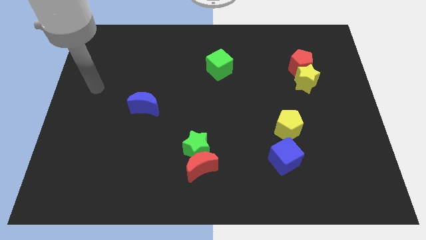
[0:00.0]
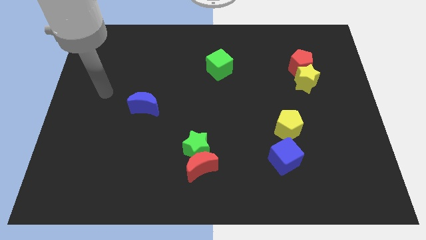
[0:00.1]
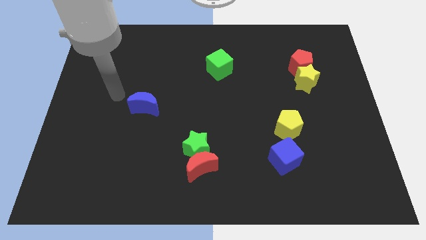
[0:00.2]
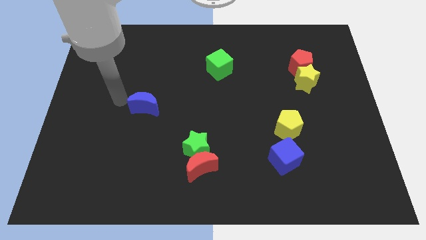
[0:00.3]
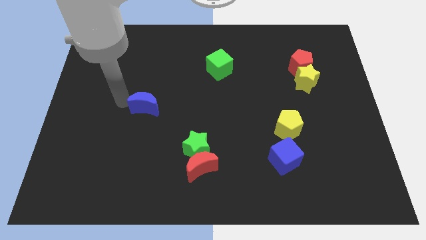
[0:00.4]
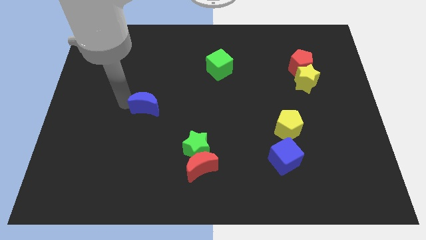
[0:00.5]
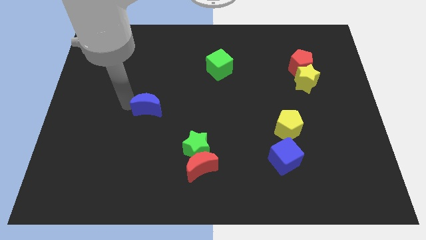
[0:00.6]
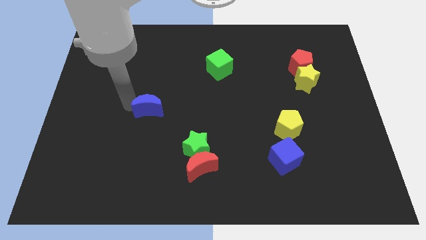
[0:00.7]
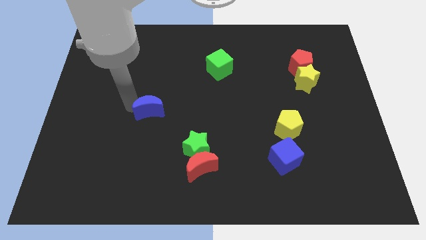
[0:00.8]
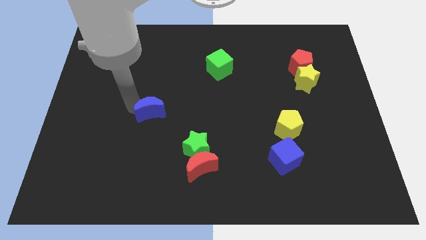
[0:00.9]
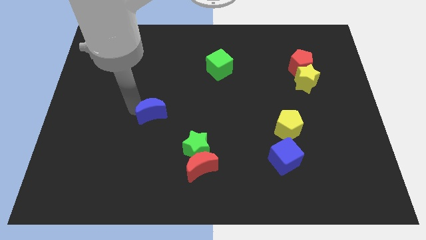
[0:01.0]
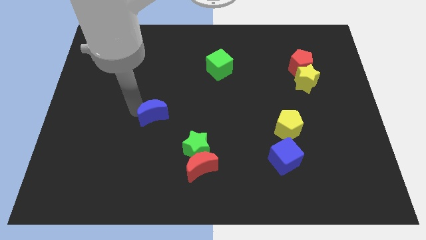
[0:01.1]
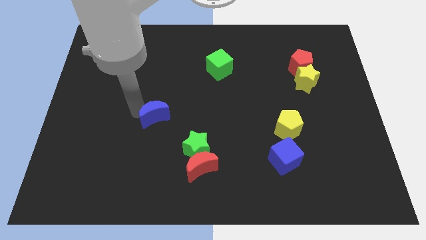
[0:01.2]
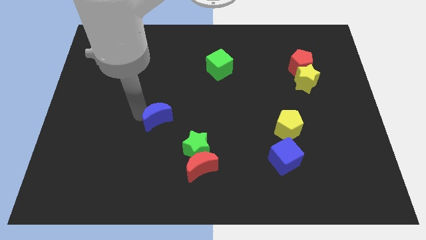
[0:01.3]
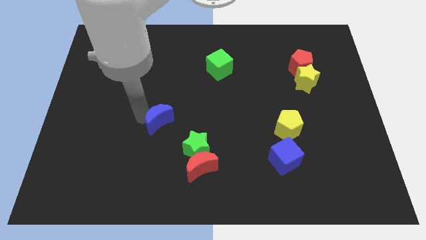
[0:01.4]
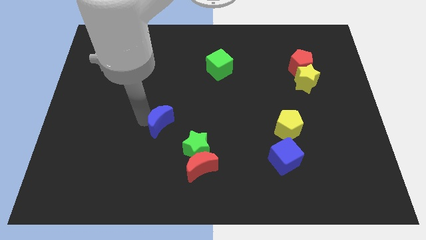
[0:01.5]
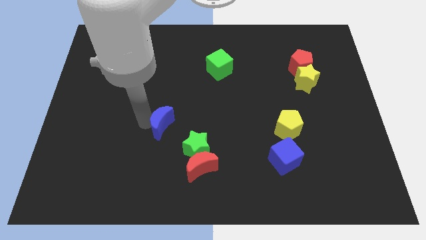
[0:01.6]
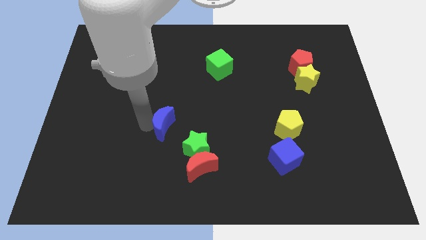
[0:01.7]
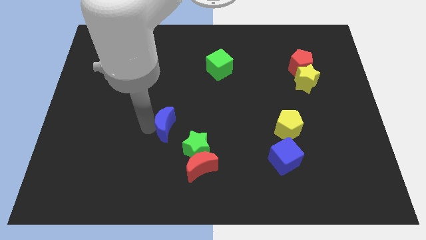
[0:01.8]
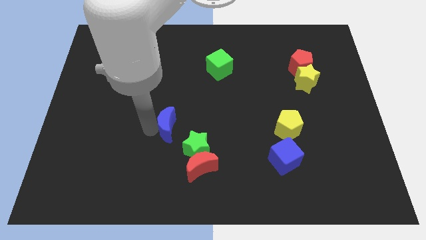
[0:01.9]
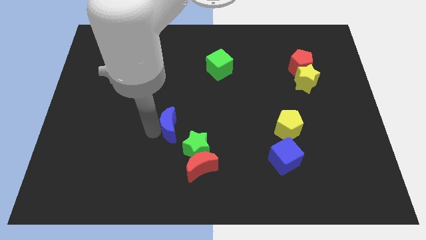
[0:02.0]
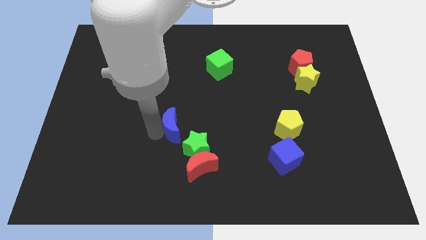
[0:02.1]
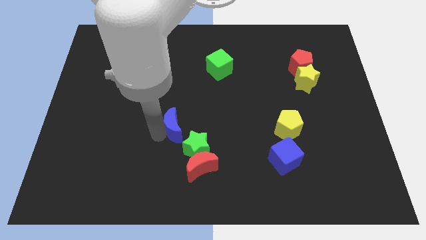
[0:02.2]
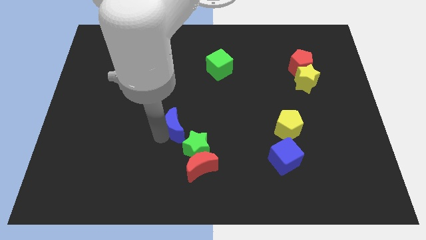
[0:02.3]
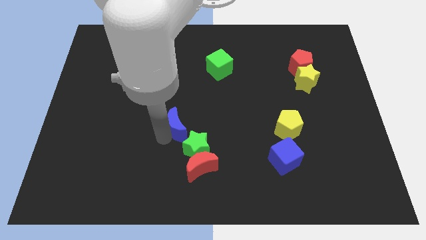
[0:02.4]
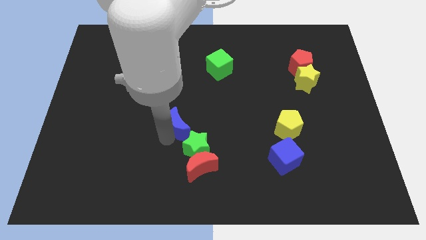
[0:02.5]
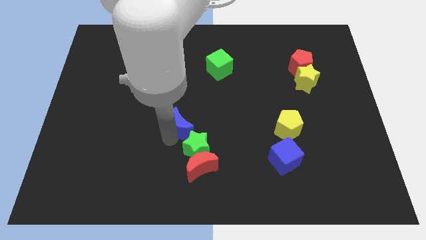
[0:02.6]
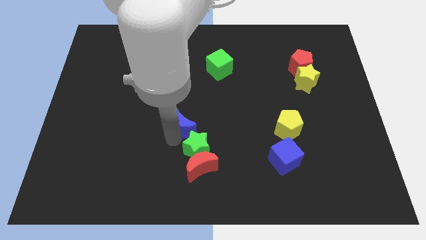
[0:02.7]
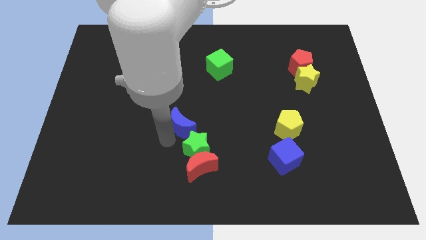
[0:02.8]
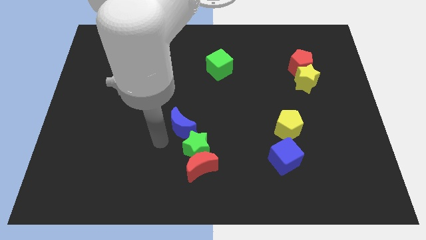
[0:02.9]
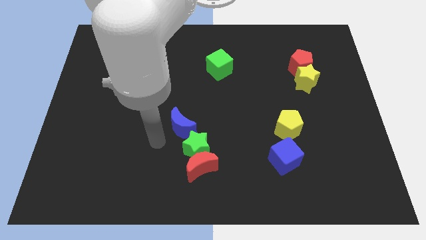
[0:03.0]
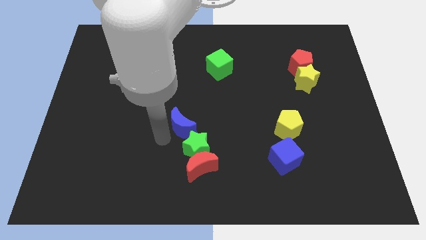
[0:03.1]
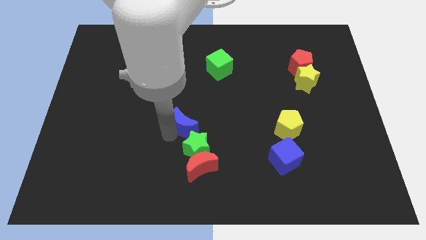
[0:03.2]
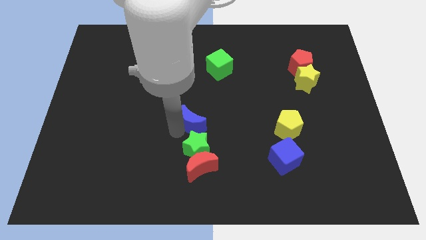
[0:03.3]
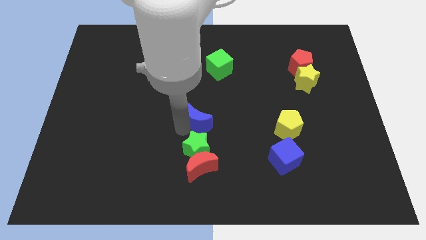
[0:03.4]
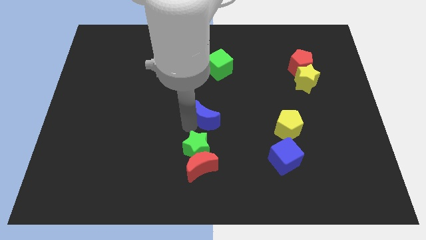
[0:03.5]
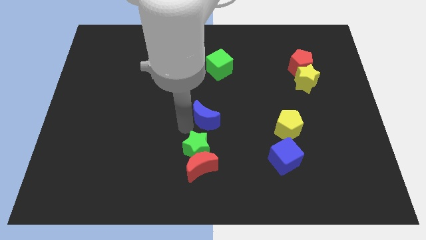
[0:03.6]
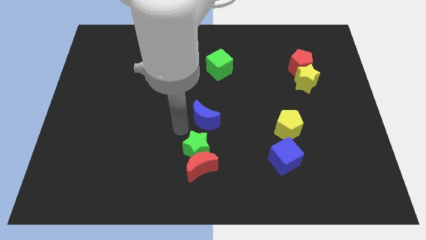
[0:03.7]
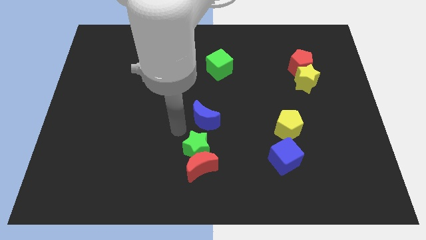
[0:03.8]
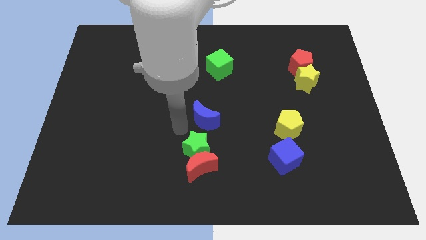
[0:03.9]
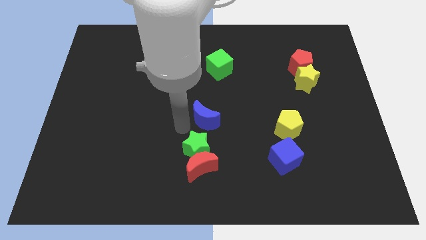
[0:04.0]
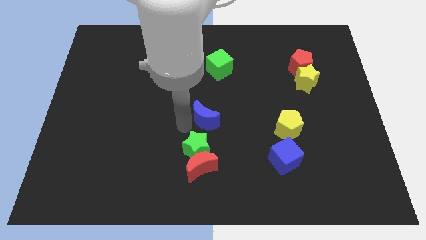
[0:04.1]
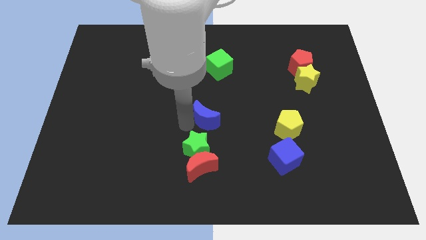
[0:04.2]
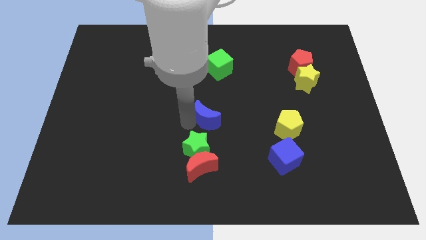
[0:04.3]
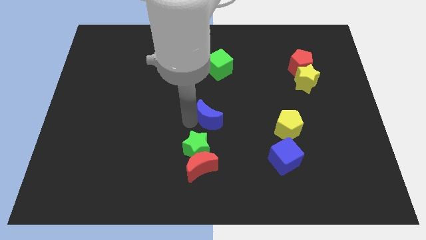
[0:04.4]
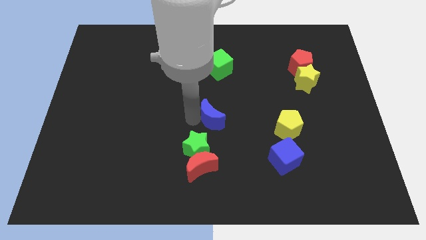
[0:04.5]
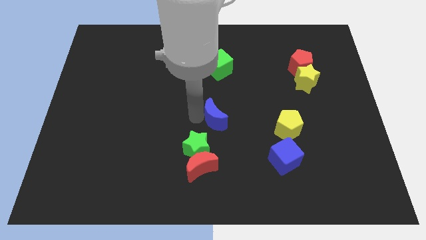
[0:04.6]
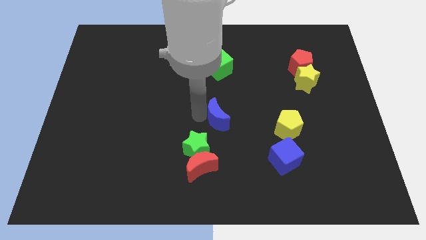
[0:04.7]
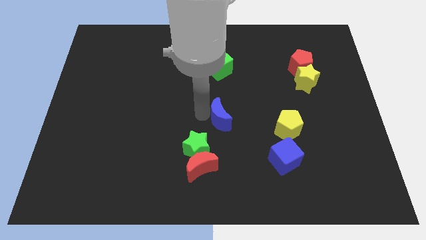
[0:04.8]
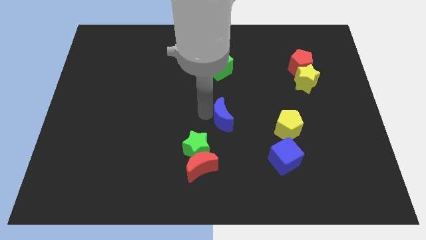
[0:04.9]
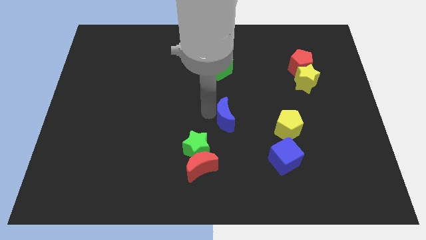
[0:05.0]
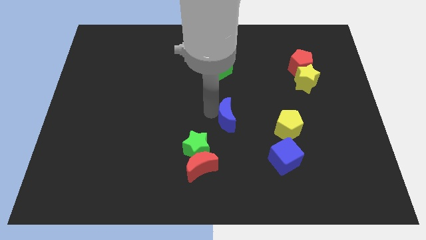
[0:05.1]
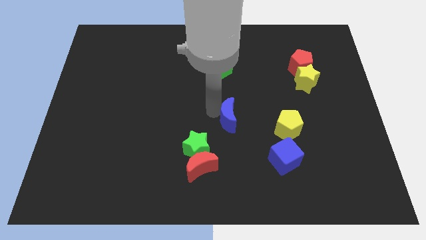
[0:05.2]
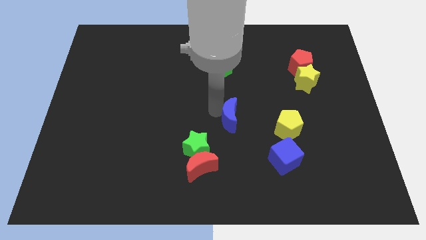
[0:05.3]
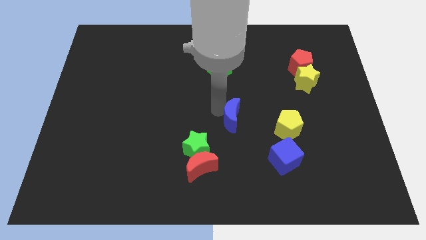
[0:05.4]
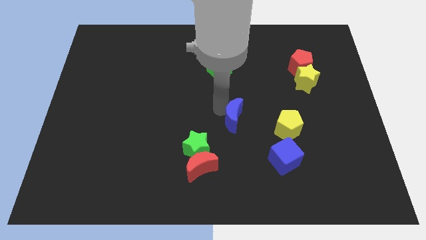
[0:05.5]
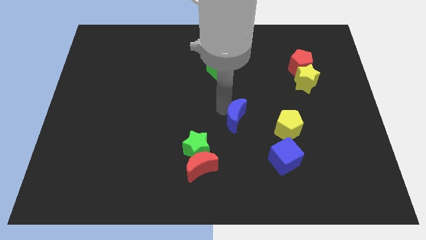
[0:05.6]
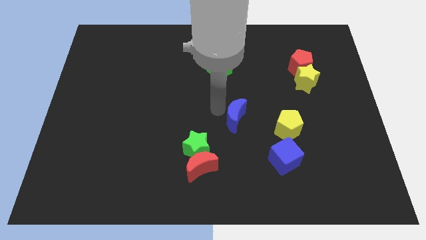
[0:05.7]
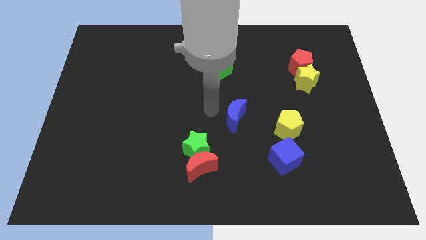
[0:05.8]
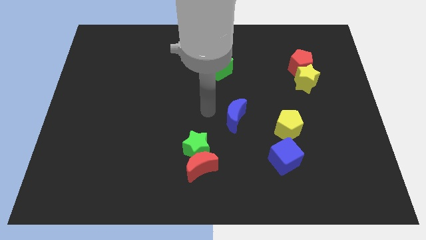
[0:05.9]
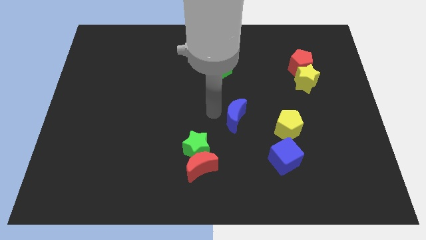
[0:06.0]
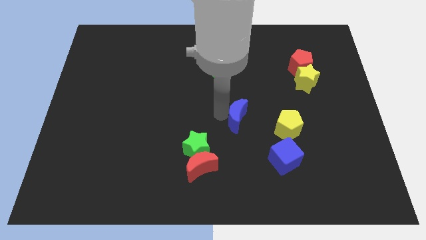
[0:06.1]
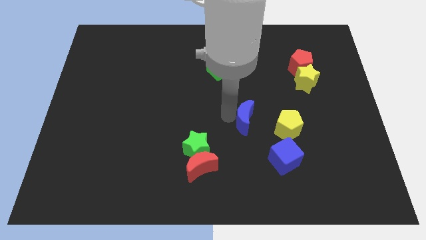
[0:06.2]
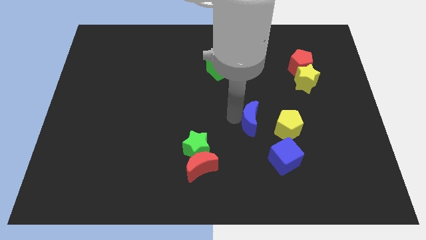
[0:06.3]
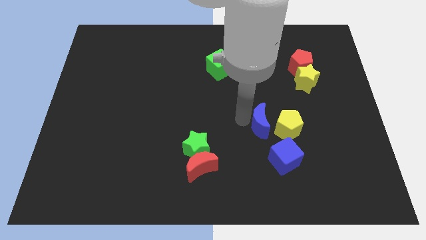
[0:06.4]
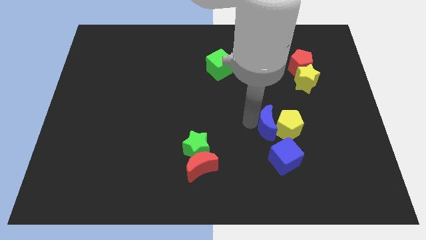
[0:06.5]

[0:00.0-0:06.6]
push the blue moon next to the yellow pentagon

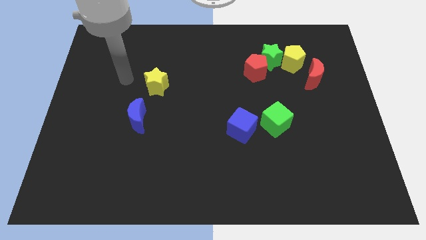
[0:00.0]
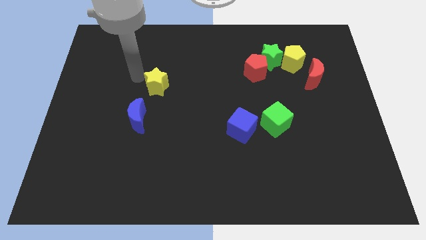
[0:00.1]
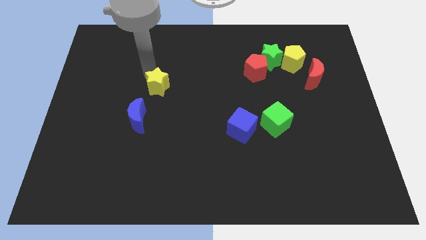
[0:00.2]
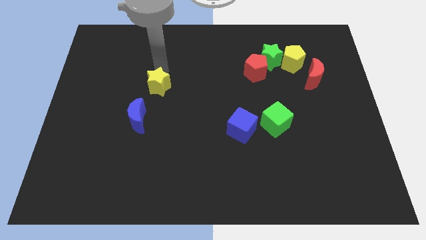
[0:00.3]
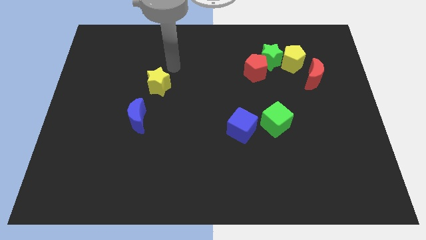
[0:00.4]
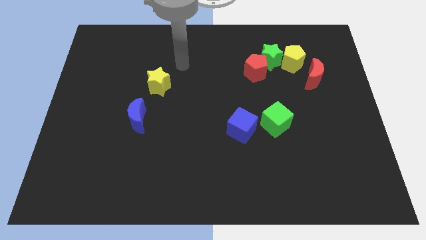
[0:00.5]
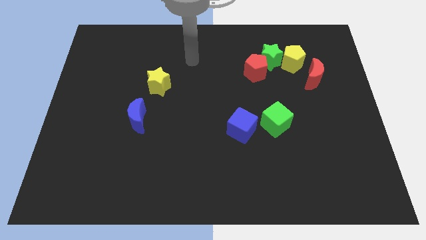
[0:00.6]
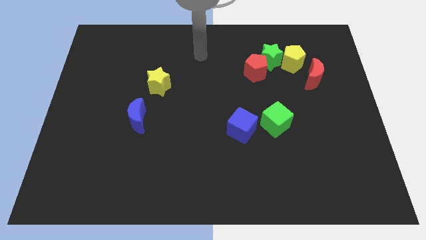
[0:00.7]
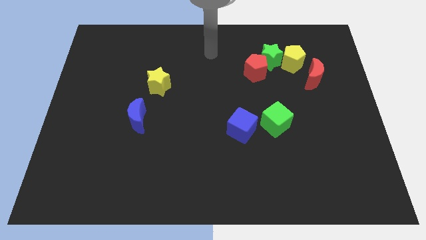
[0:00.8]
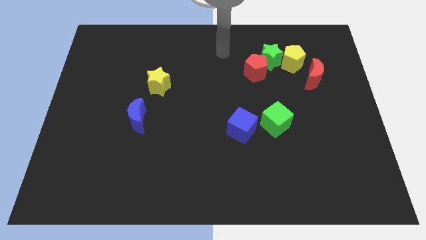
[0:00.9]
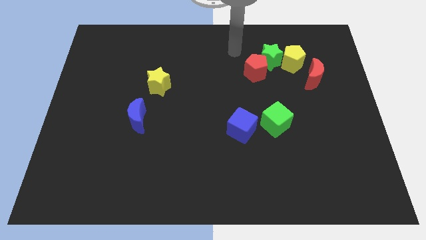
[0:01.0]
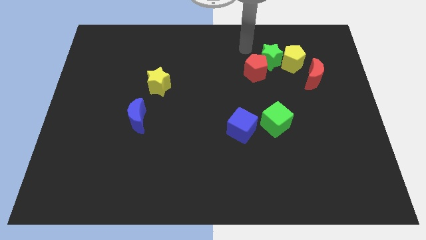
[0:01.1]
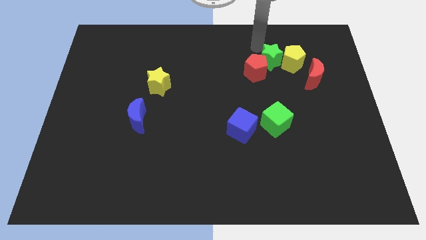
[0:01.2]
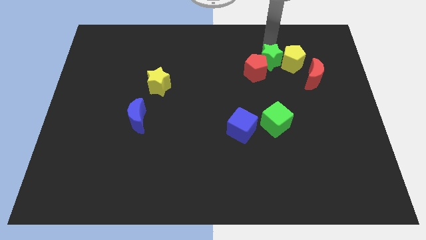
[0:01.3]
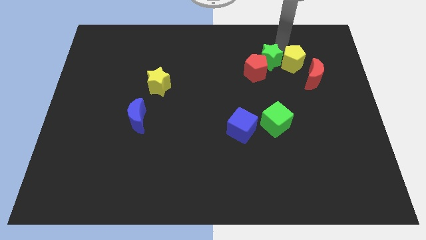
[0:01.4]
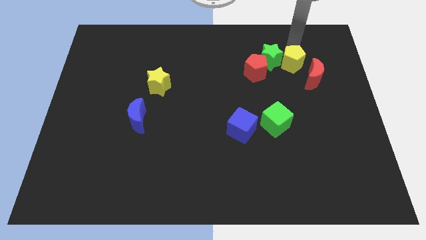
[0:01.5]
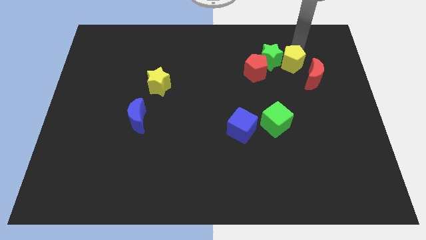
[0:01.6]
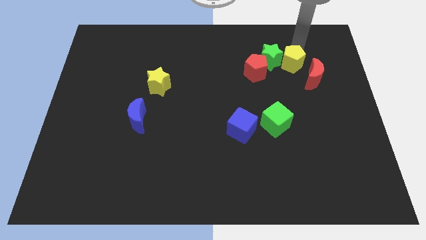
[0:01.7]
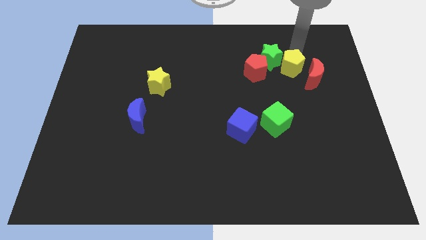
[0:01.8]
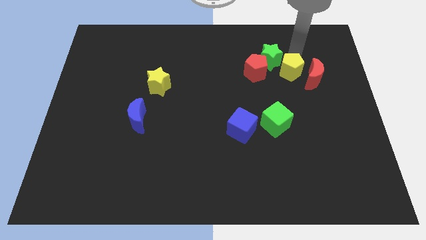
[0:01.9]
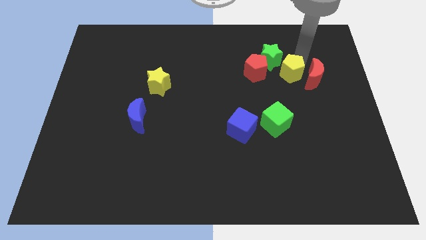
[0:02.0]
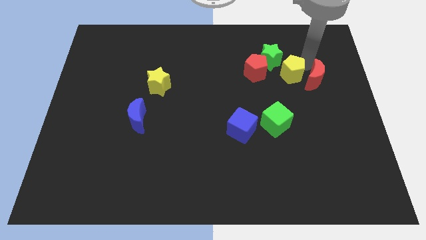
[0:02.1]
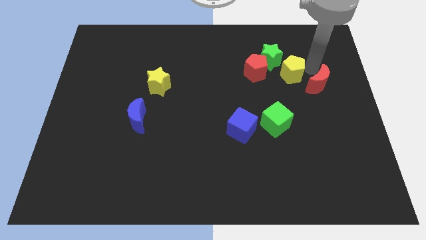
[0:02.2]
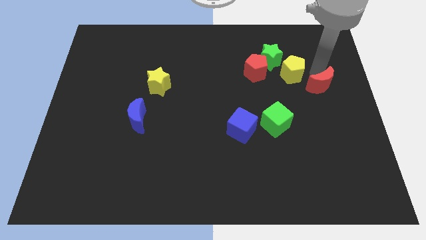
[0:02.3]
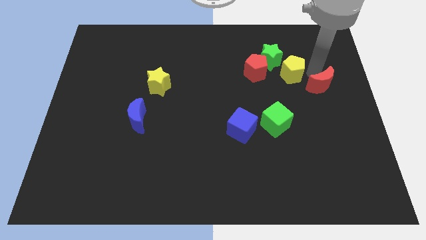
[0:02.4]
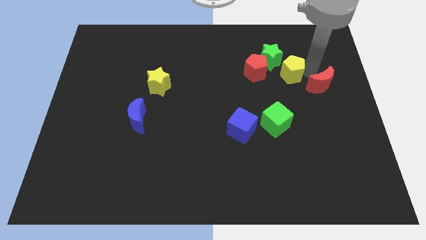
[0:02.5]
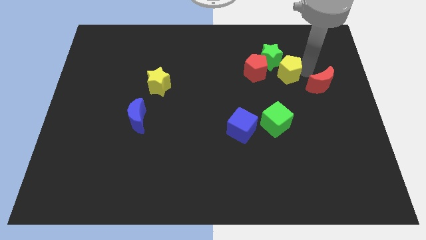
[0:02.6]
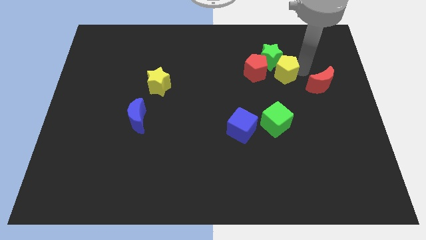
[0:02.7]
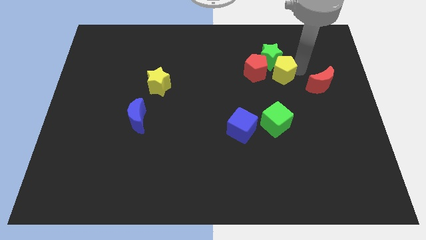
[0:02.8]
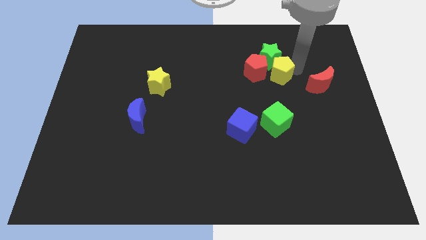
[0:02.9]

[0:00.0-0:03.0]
slide the yellow pentagon to the red pentagon
